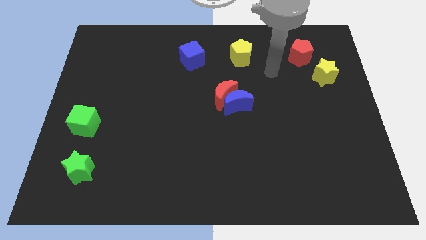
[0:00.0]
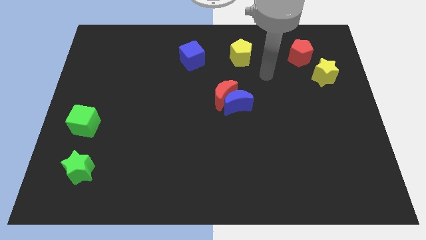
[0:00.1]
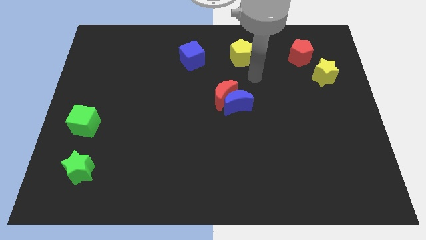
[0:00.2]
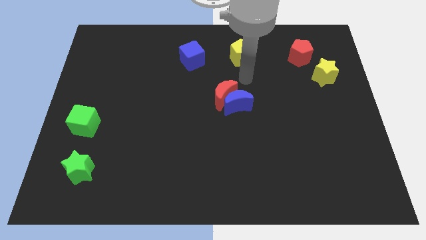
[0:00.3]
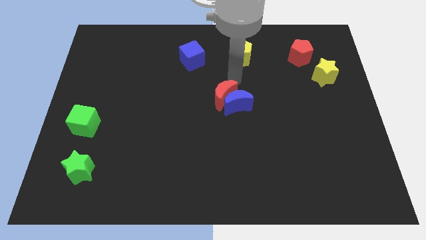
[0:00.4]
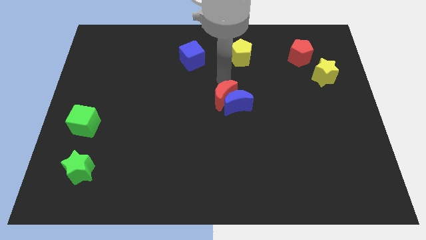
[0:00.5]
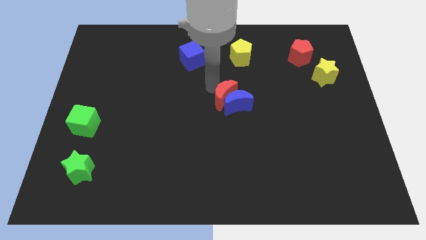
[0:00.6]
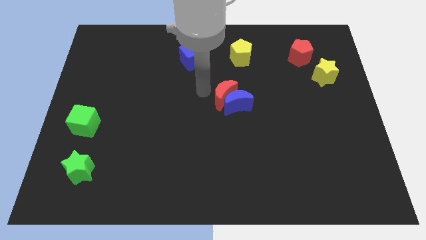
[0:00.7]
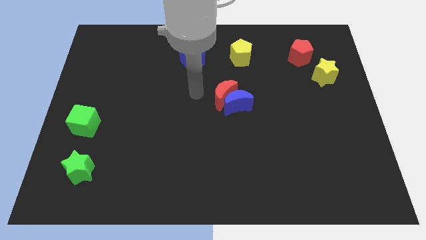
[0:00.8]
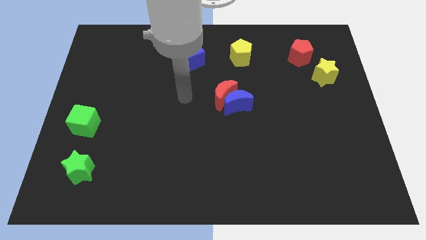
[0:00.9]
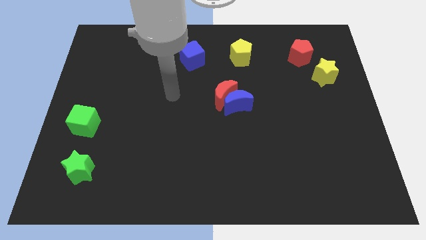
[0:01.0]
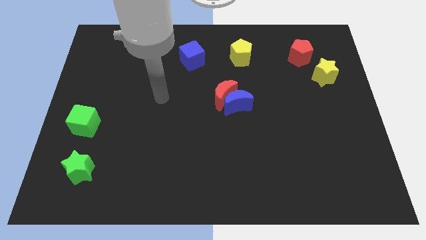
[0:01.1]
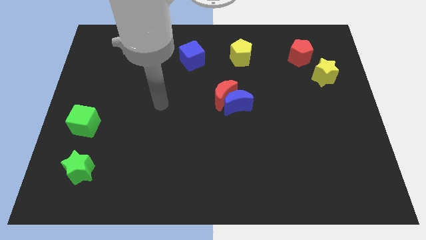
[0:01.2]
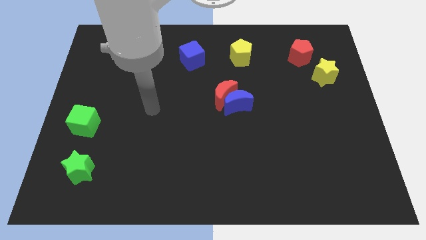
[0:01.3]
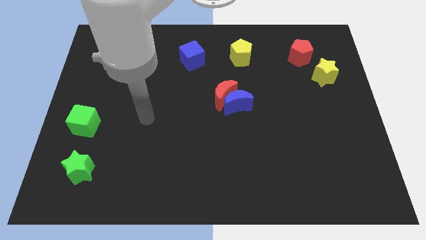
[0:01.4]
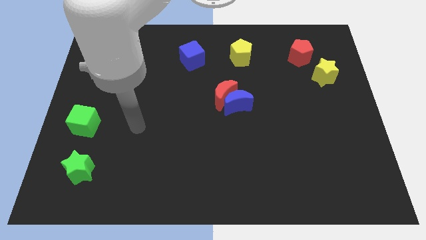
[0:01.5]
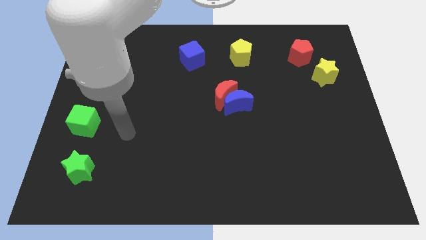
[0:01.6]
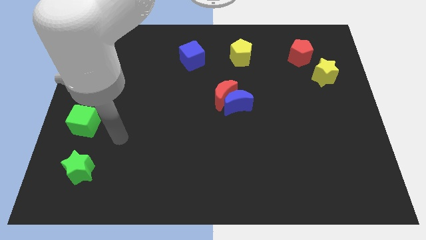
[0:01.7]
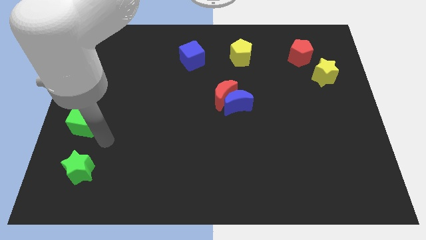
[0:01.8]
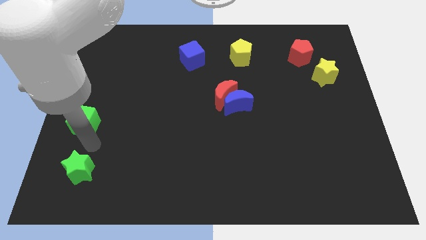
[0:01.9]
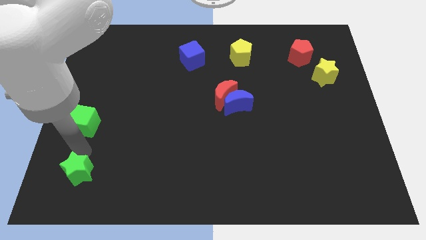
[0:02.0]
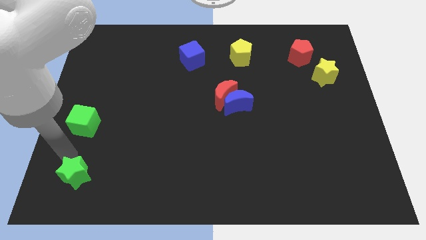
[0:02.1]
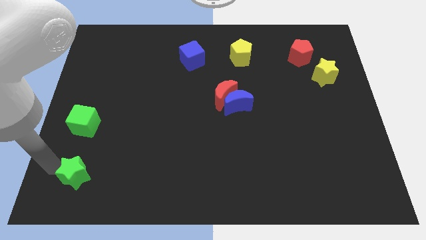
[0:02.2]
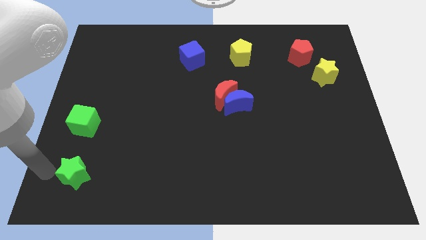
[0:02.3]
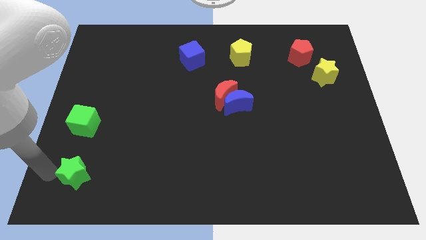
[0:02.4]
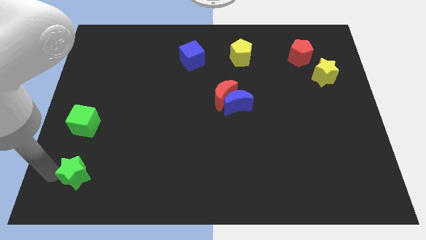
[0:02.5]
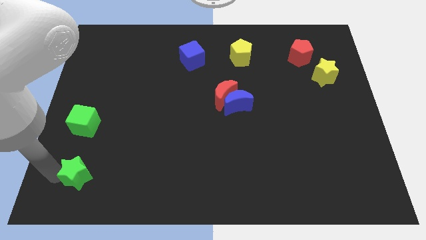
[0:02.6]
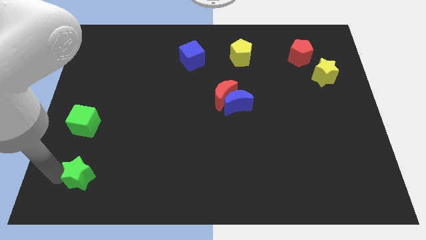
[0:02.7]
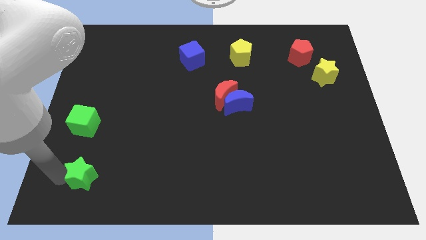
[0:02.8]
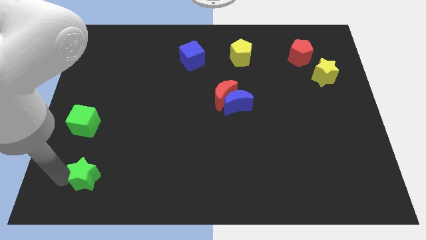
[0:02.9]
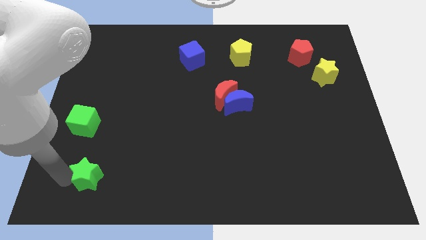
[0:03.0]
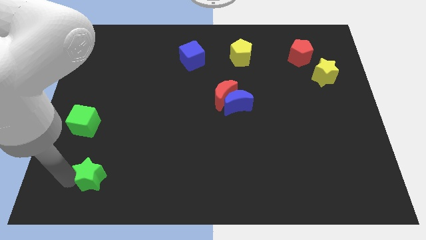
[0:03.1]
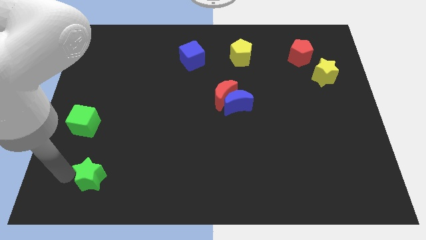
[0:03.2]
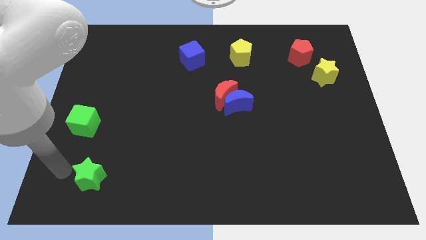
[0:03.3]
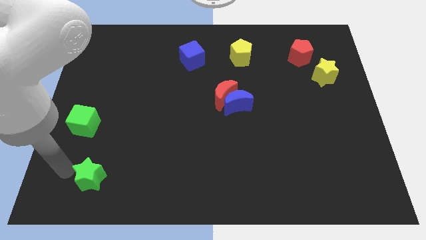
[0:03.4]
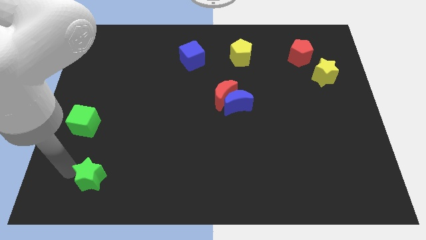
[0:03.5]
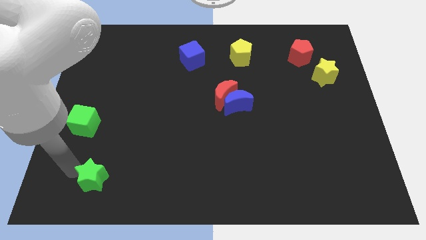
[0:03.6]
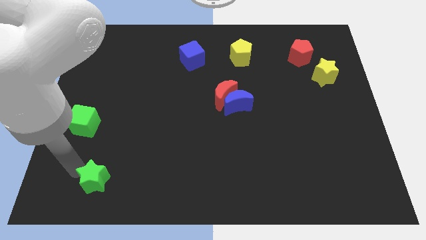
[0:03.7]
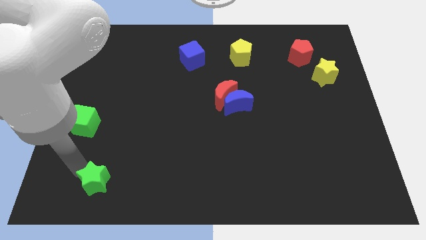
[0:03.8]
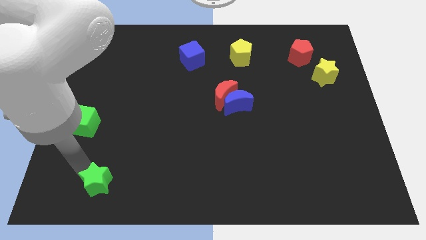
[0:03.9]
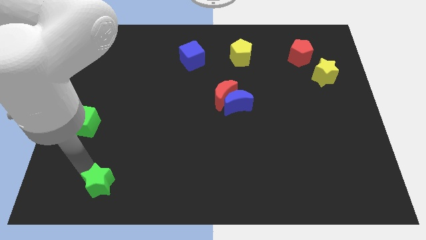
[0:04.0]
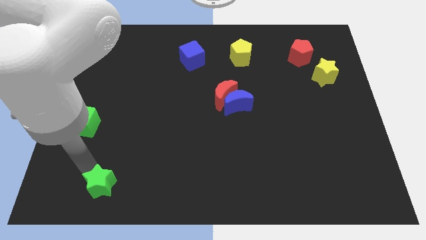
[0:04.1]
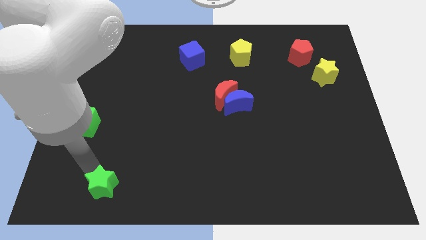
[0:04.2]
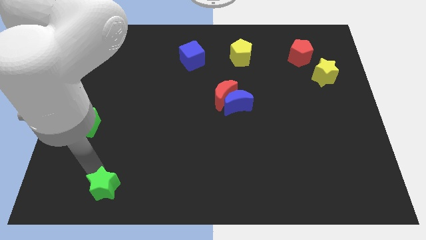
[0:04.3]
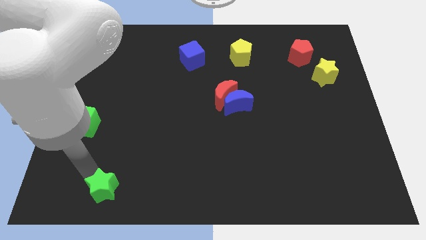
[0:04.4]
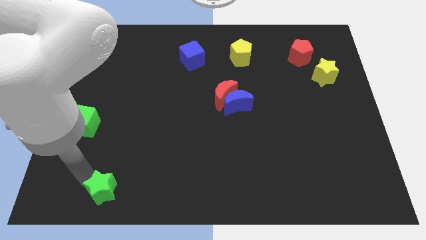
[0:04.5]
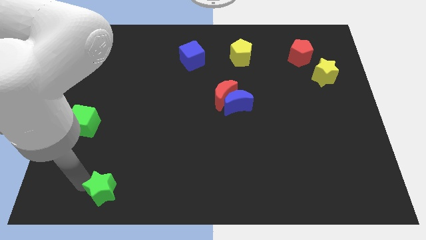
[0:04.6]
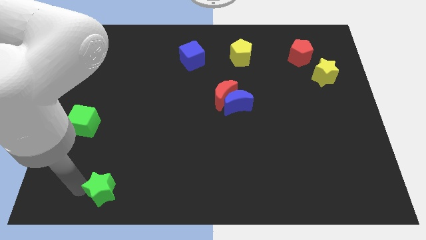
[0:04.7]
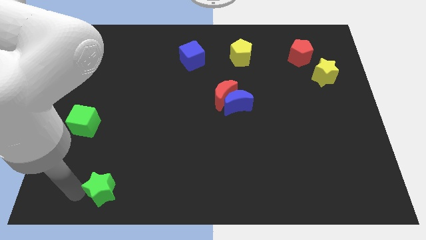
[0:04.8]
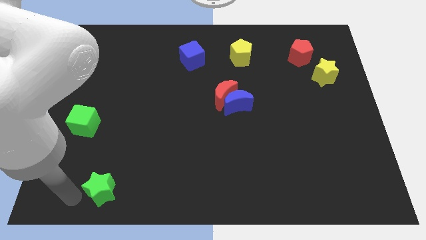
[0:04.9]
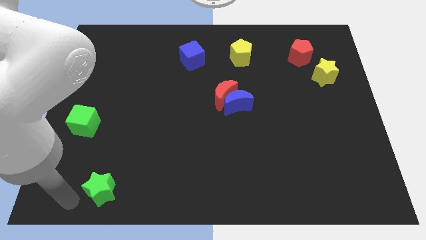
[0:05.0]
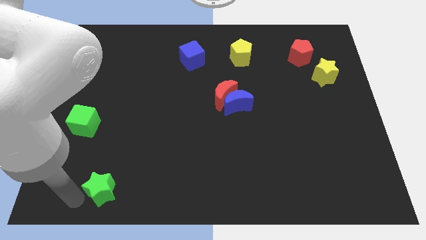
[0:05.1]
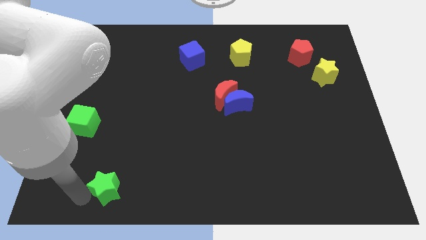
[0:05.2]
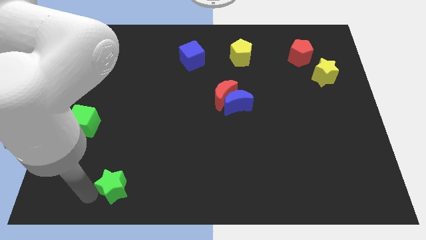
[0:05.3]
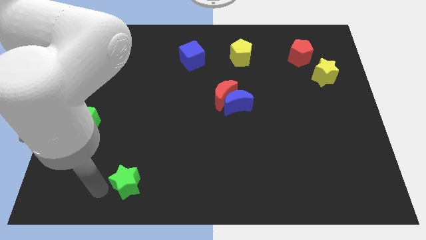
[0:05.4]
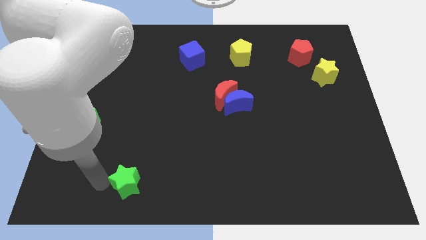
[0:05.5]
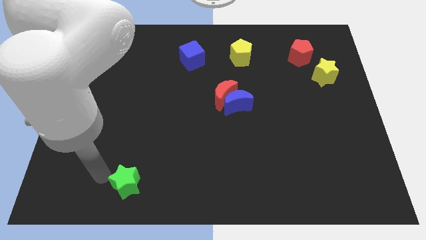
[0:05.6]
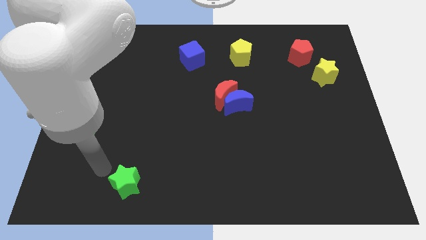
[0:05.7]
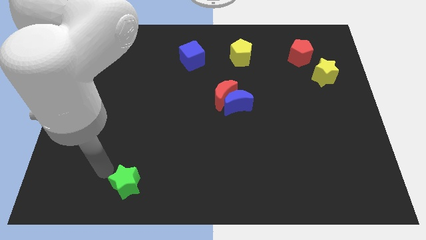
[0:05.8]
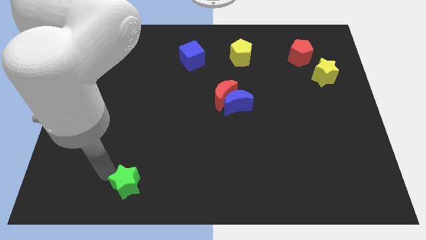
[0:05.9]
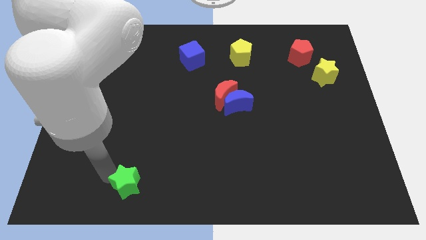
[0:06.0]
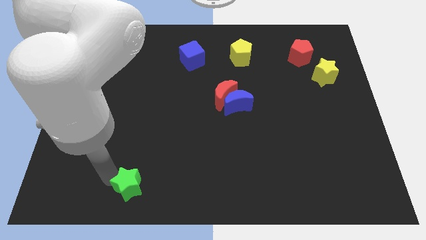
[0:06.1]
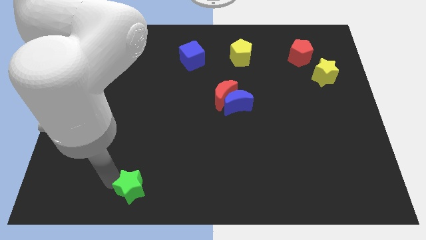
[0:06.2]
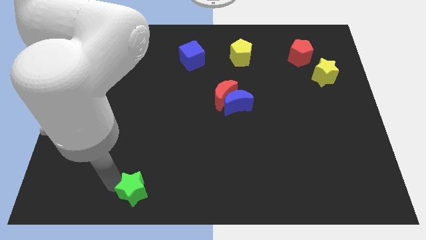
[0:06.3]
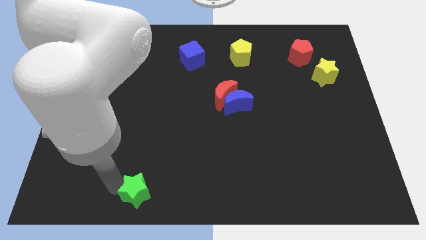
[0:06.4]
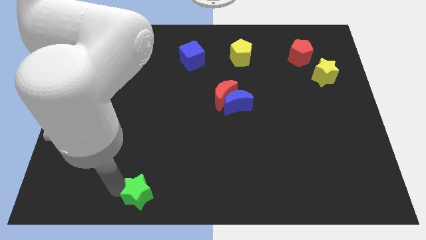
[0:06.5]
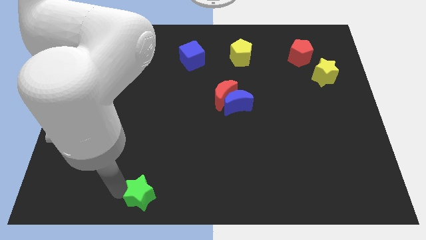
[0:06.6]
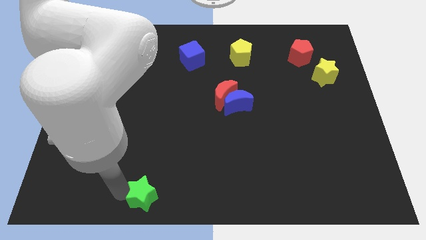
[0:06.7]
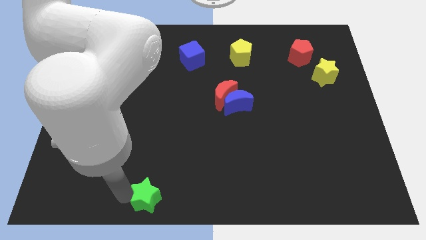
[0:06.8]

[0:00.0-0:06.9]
slide the green star to the bottom
